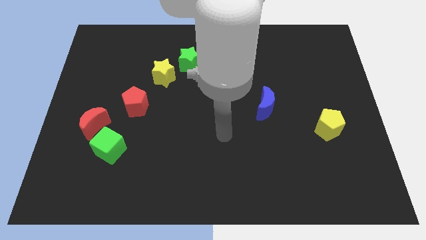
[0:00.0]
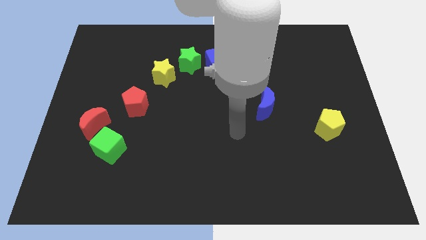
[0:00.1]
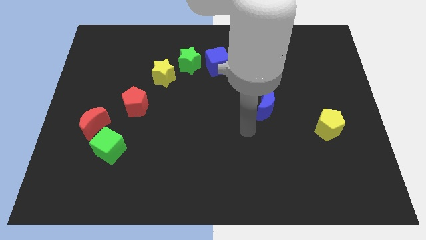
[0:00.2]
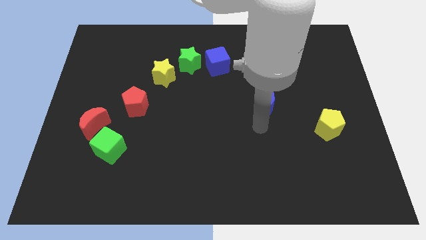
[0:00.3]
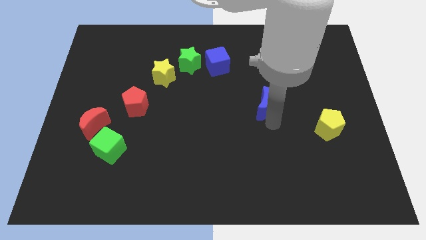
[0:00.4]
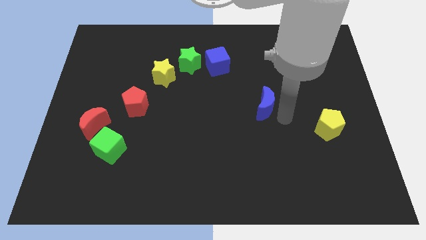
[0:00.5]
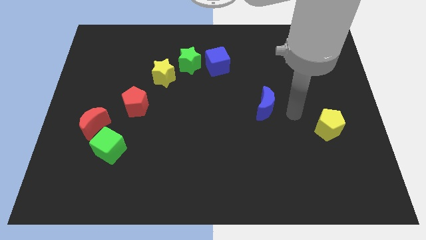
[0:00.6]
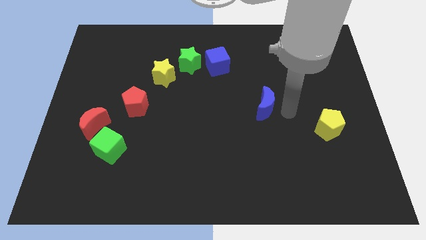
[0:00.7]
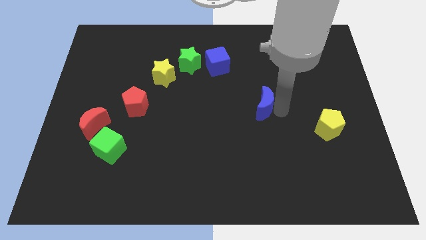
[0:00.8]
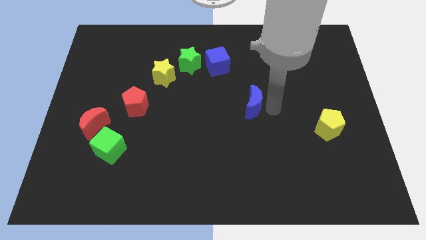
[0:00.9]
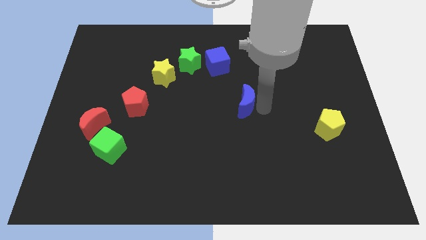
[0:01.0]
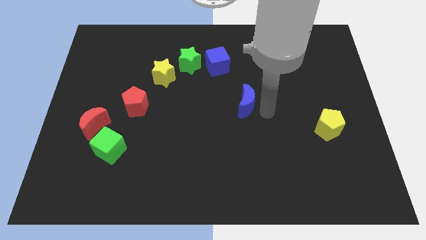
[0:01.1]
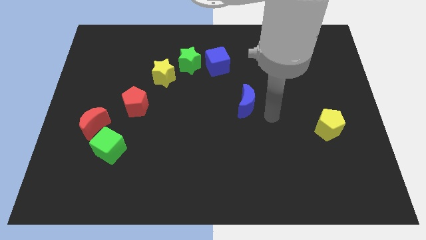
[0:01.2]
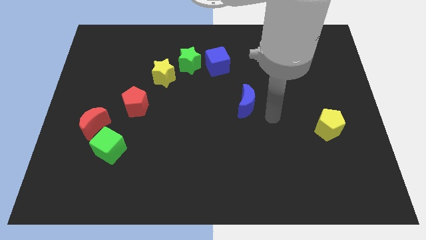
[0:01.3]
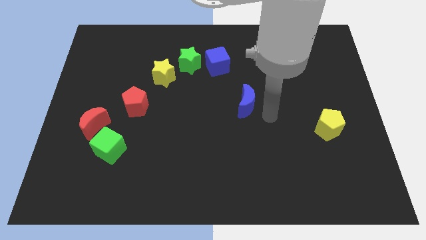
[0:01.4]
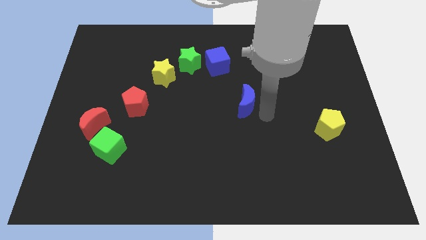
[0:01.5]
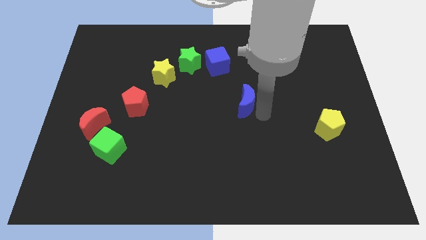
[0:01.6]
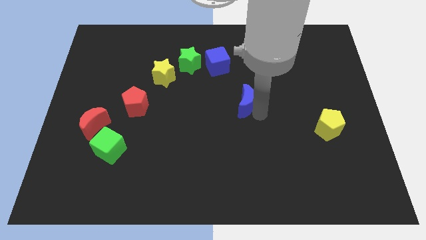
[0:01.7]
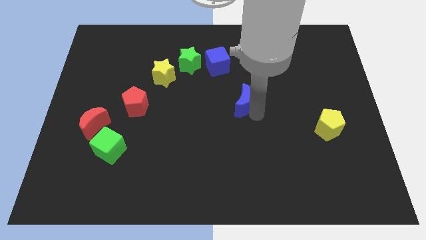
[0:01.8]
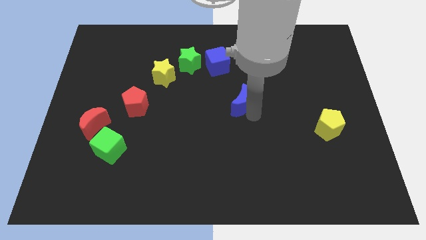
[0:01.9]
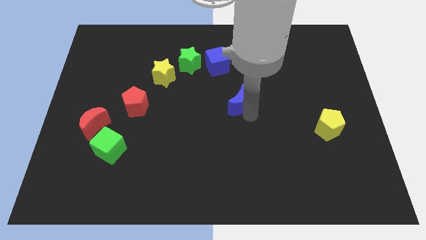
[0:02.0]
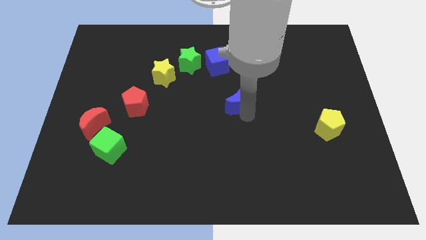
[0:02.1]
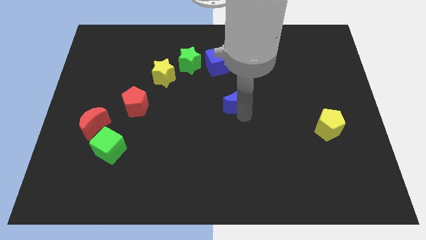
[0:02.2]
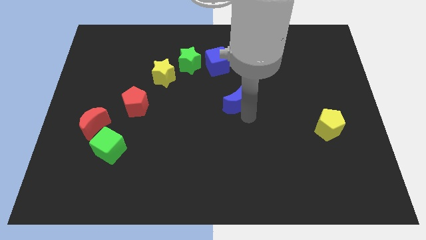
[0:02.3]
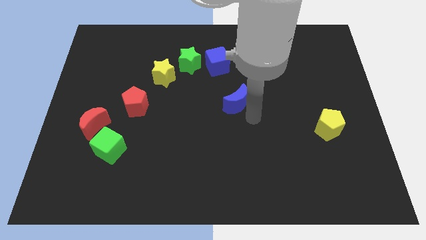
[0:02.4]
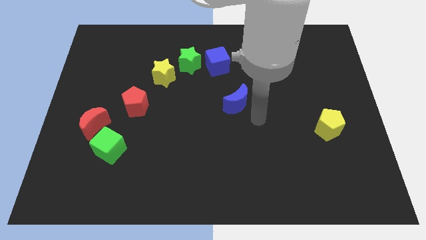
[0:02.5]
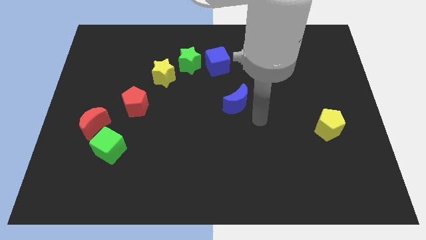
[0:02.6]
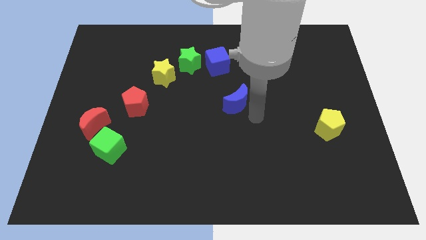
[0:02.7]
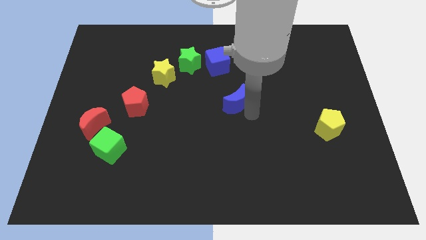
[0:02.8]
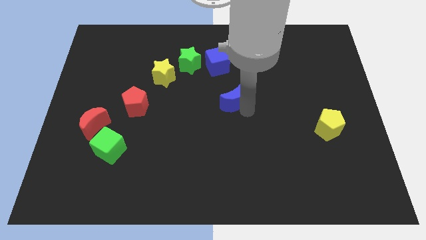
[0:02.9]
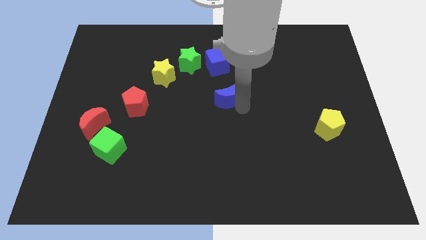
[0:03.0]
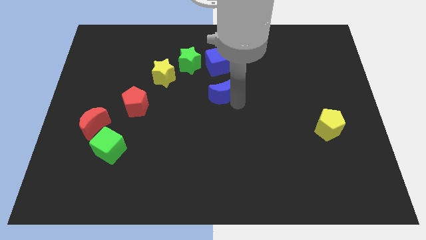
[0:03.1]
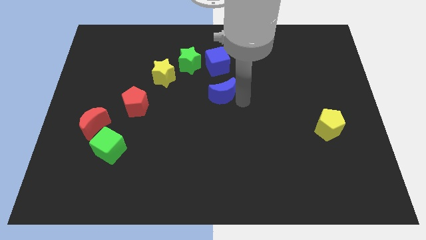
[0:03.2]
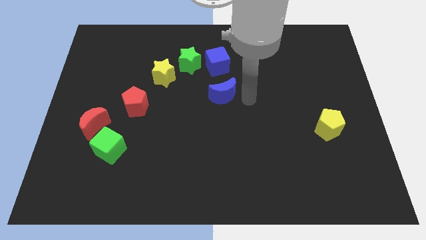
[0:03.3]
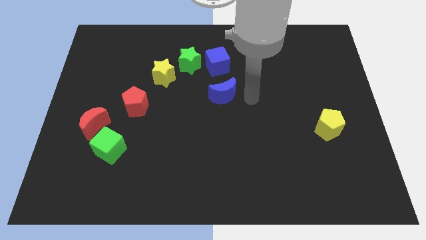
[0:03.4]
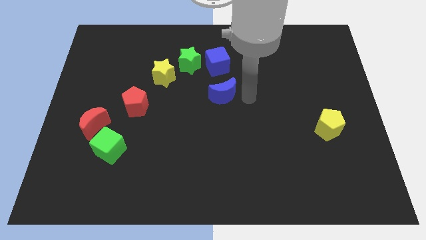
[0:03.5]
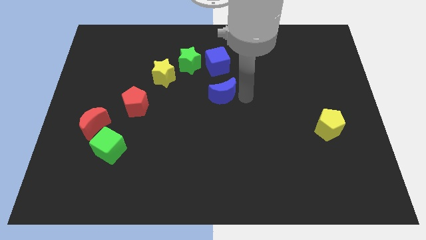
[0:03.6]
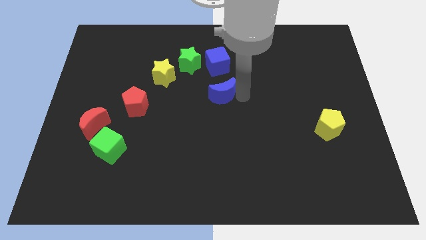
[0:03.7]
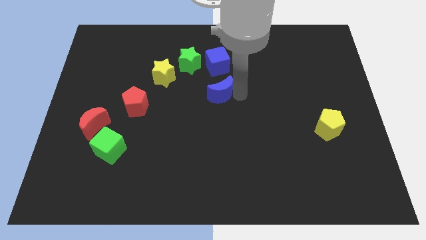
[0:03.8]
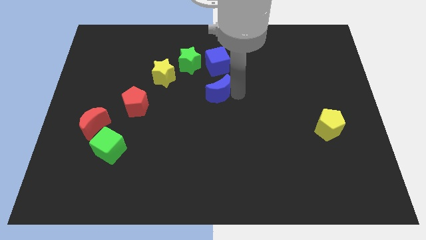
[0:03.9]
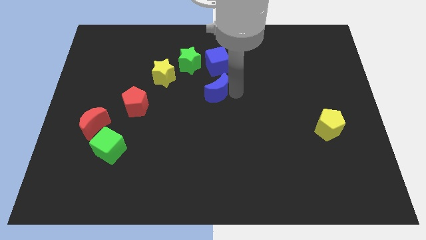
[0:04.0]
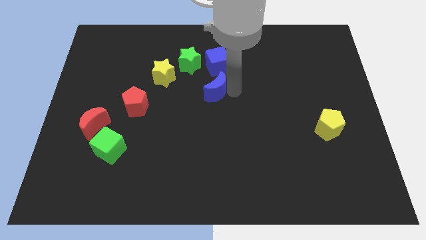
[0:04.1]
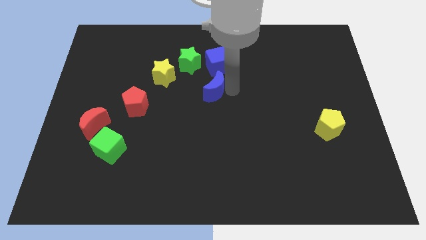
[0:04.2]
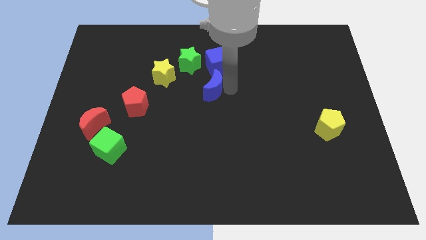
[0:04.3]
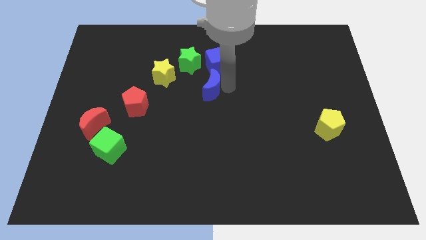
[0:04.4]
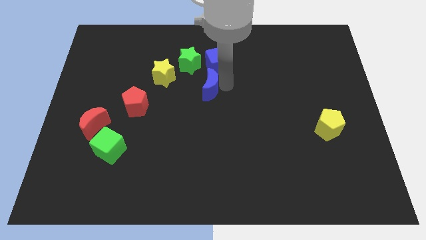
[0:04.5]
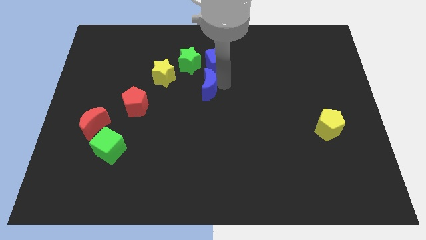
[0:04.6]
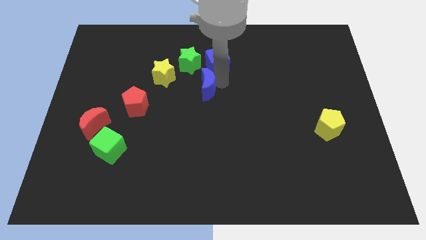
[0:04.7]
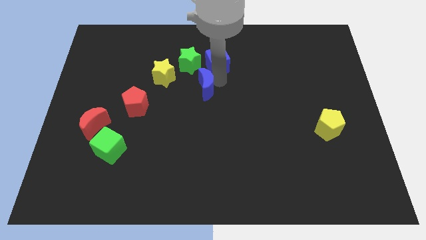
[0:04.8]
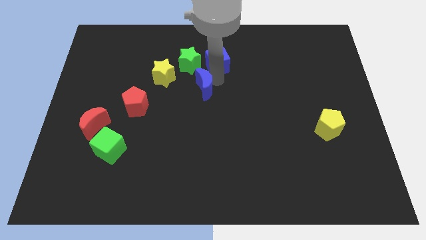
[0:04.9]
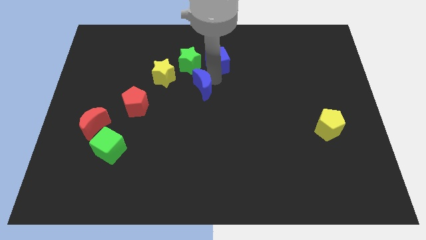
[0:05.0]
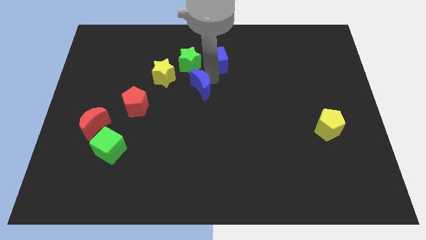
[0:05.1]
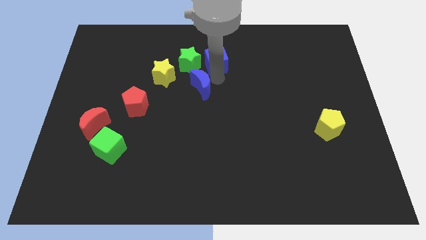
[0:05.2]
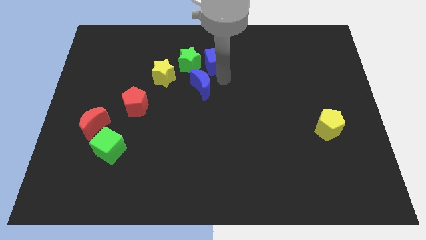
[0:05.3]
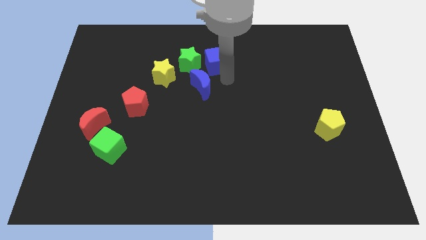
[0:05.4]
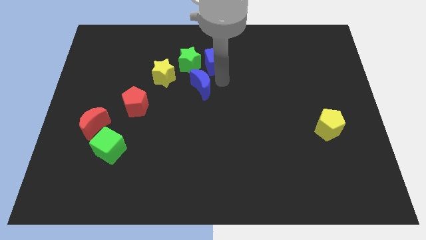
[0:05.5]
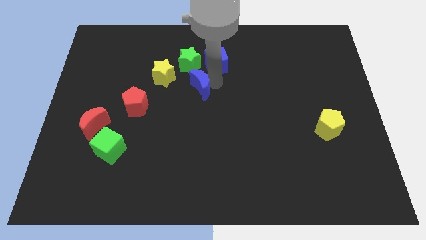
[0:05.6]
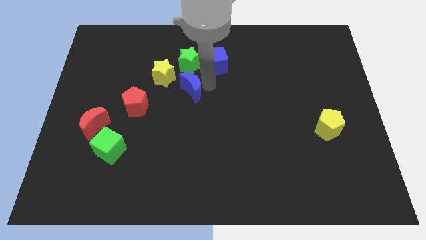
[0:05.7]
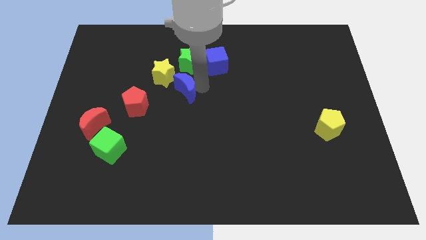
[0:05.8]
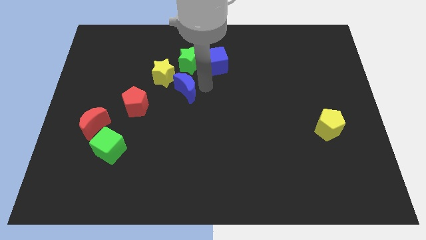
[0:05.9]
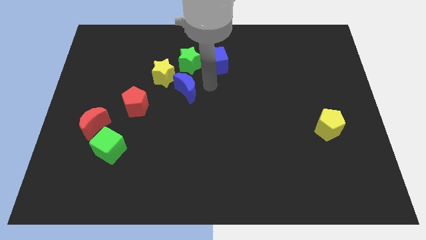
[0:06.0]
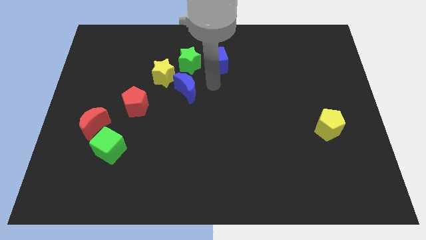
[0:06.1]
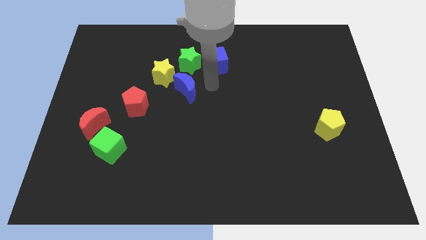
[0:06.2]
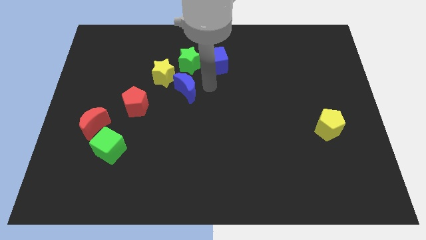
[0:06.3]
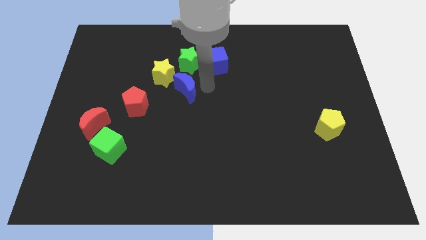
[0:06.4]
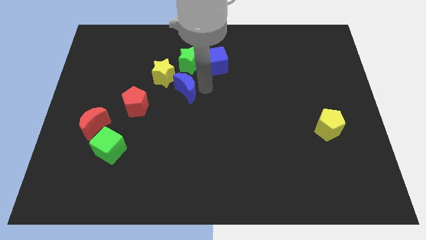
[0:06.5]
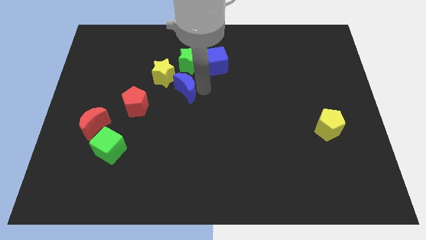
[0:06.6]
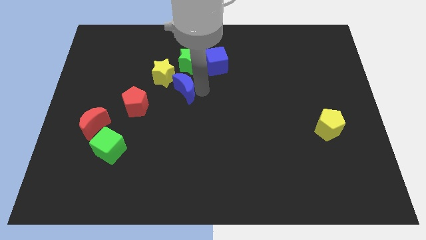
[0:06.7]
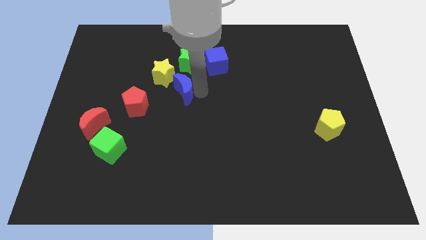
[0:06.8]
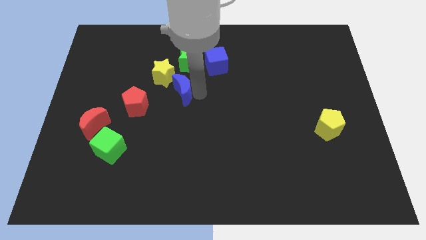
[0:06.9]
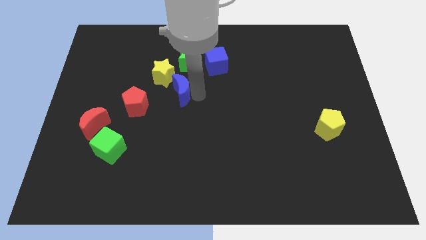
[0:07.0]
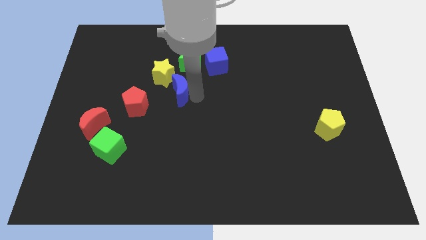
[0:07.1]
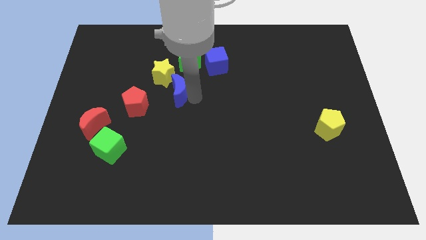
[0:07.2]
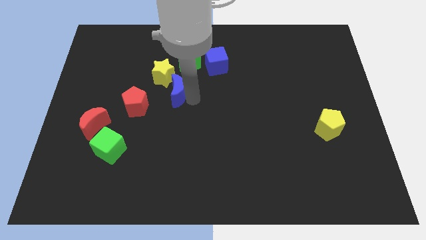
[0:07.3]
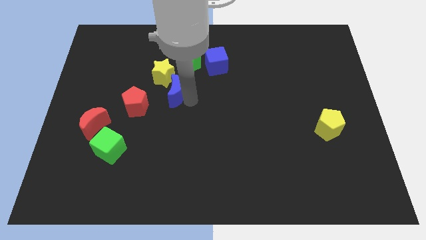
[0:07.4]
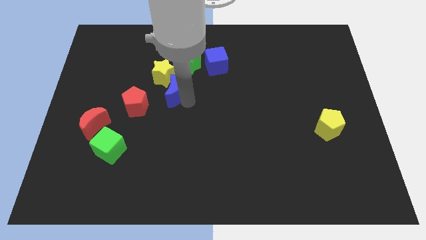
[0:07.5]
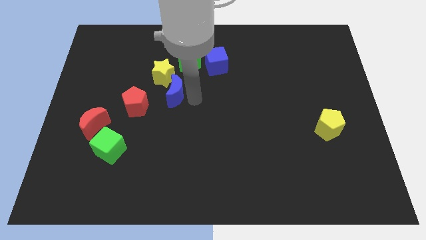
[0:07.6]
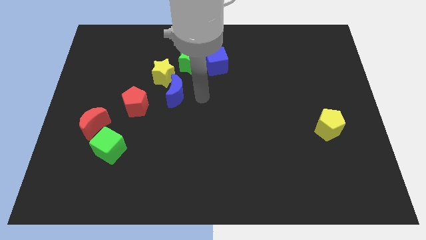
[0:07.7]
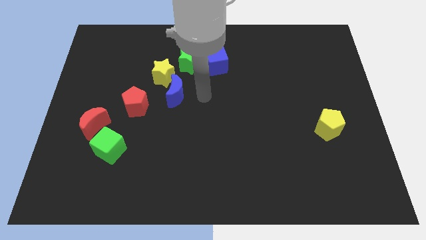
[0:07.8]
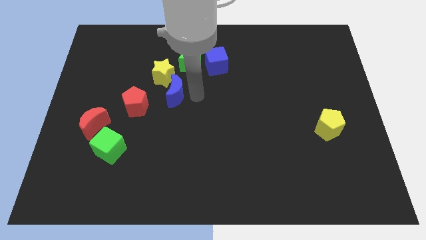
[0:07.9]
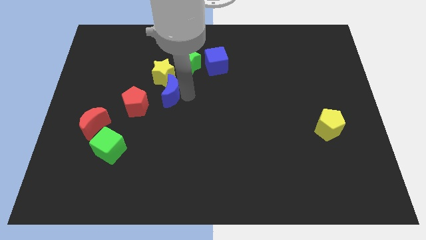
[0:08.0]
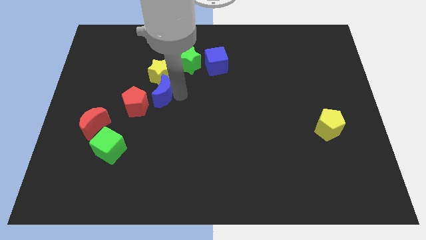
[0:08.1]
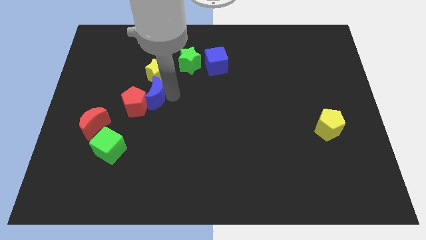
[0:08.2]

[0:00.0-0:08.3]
push the blue moon to the bottom left of the yellow star
